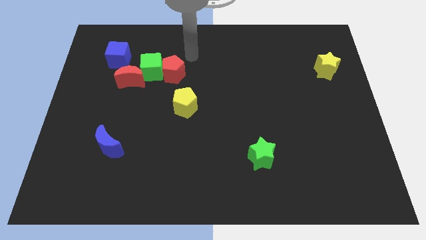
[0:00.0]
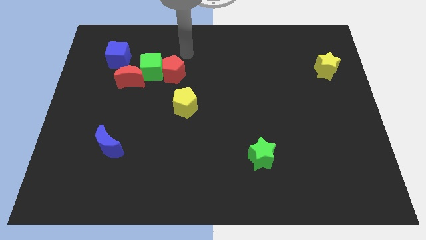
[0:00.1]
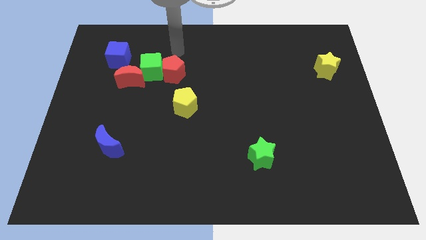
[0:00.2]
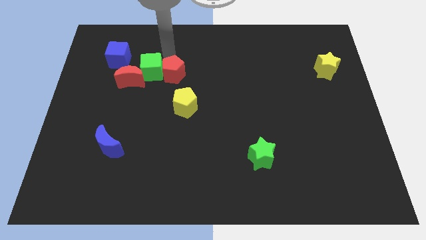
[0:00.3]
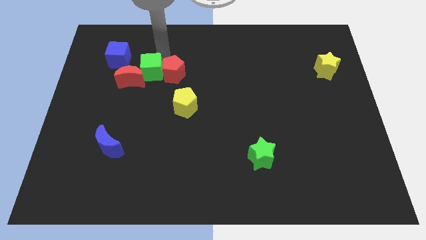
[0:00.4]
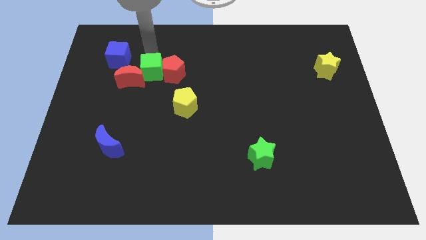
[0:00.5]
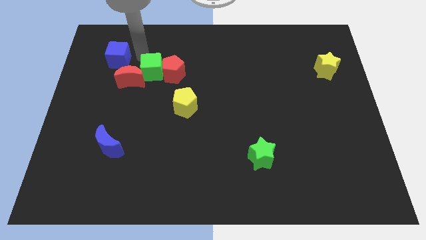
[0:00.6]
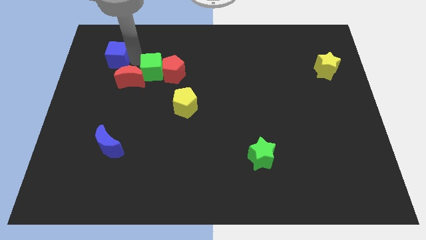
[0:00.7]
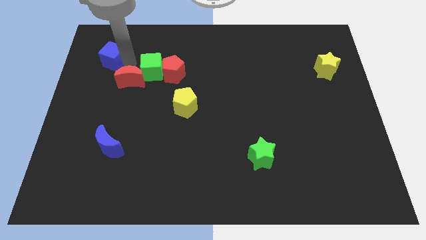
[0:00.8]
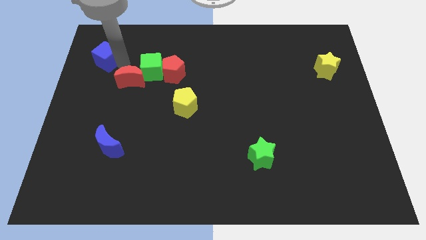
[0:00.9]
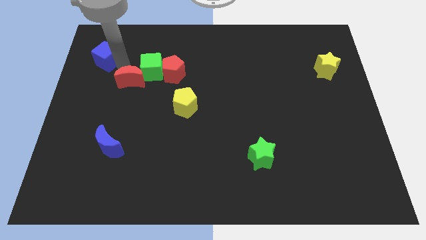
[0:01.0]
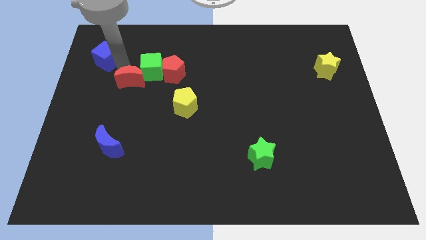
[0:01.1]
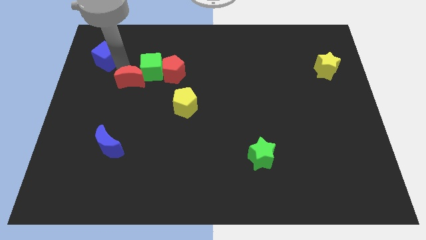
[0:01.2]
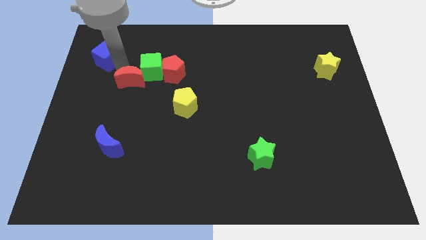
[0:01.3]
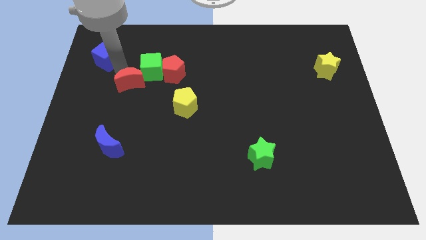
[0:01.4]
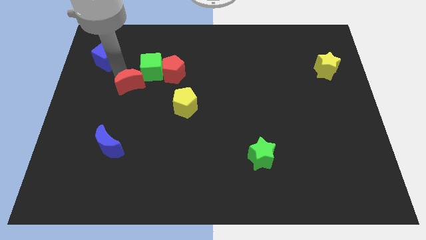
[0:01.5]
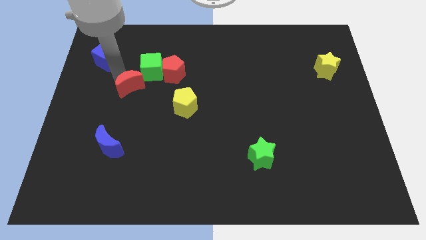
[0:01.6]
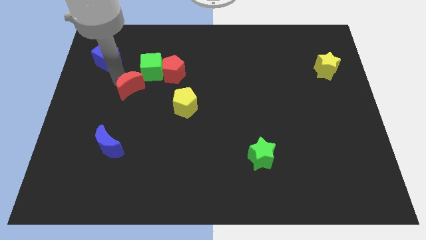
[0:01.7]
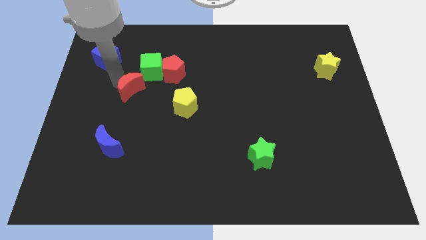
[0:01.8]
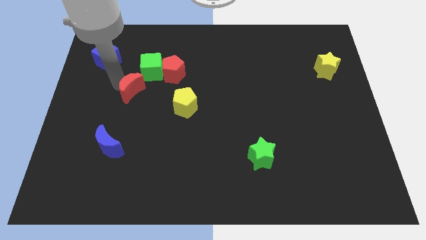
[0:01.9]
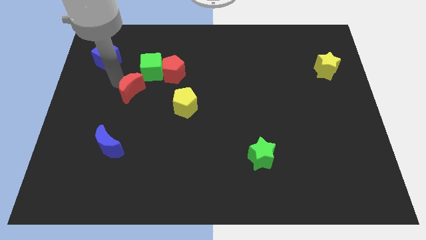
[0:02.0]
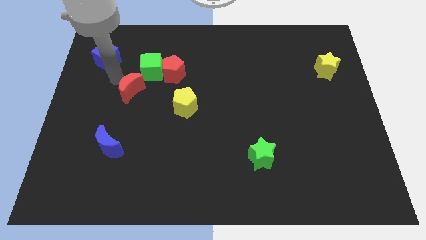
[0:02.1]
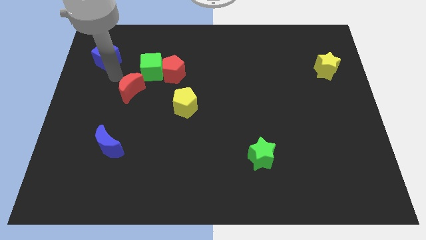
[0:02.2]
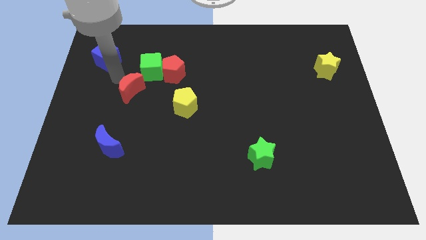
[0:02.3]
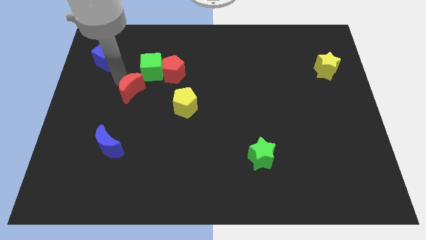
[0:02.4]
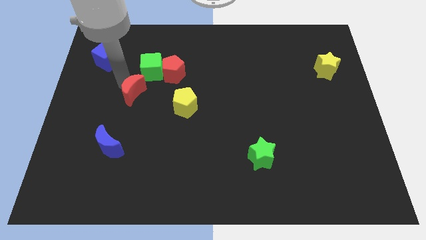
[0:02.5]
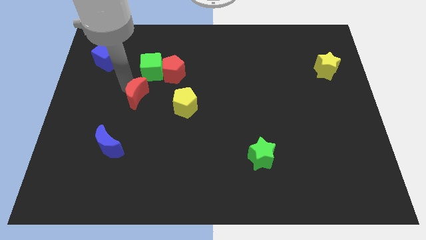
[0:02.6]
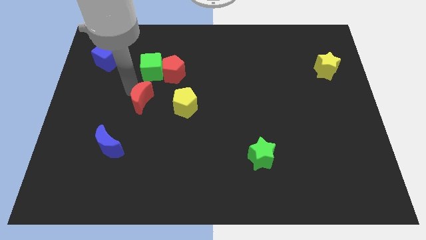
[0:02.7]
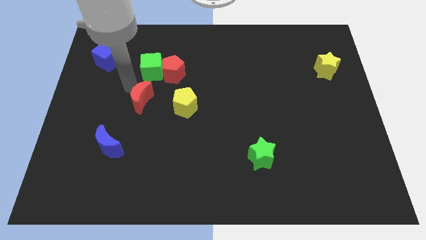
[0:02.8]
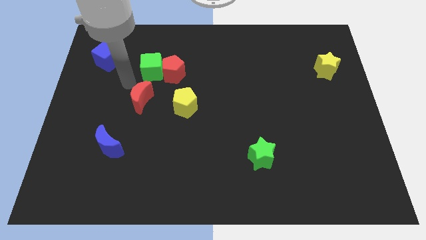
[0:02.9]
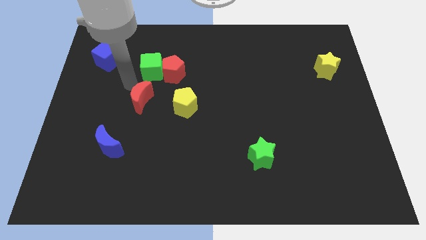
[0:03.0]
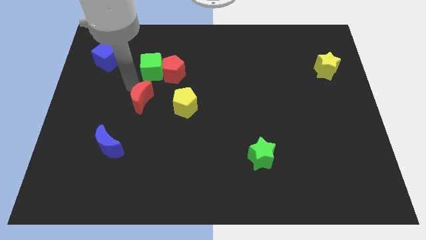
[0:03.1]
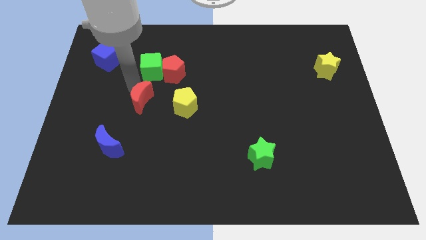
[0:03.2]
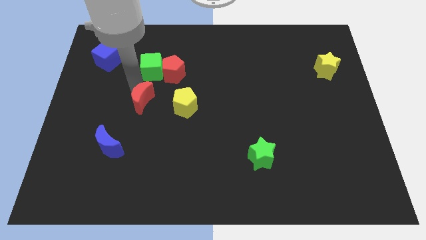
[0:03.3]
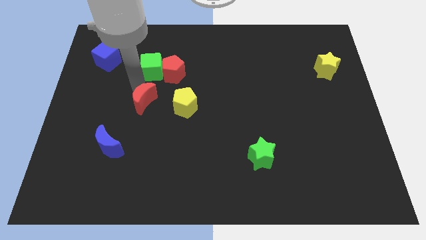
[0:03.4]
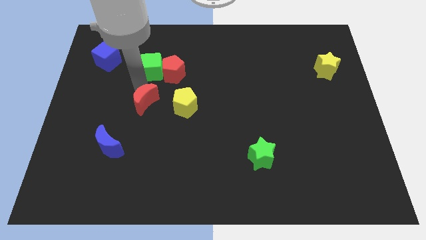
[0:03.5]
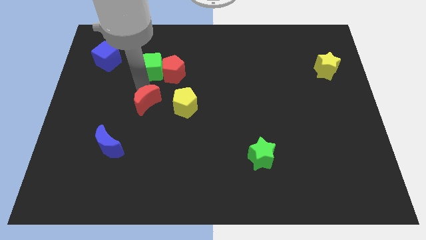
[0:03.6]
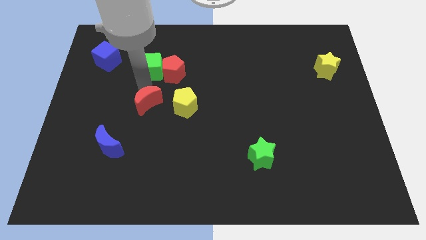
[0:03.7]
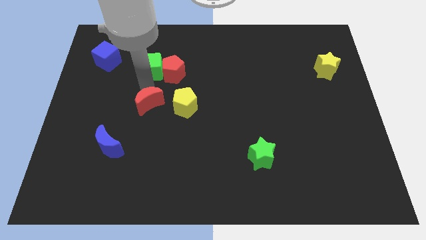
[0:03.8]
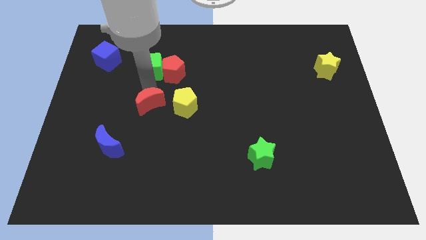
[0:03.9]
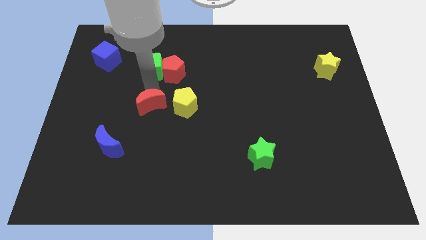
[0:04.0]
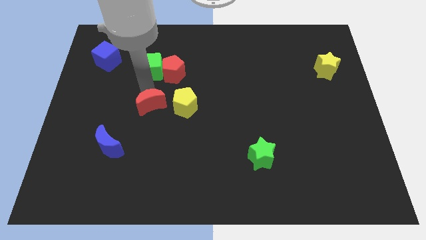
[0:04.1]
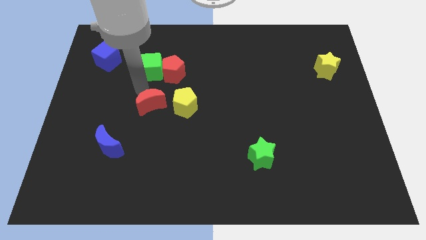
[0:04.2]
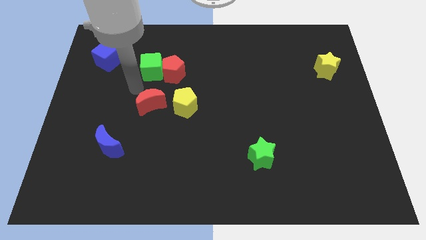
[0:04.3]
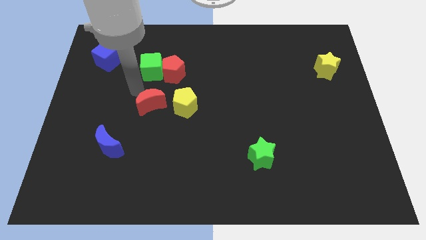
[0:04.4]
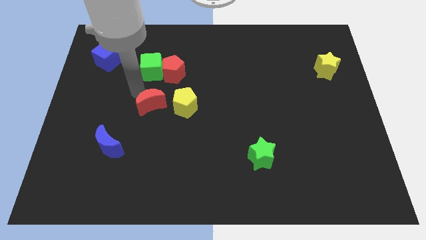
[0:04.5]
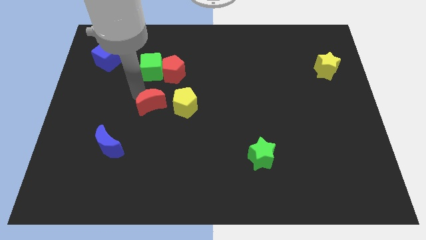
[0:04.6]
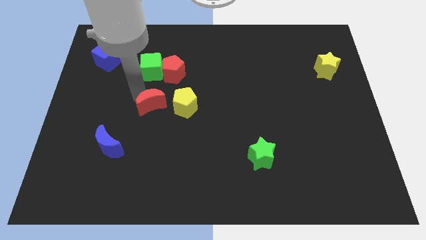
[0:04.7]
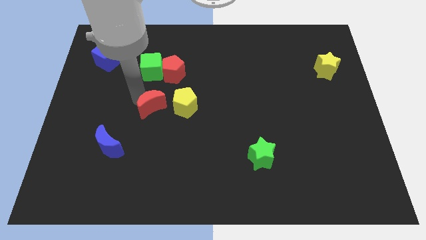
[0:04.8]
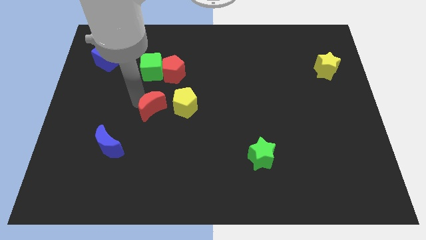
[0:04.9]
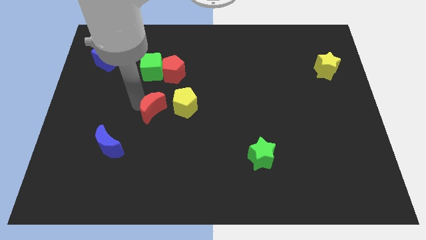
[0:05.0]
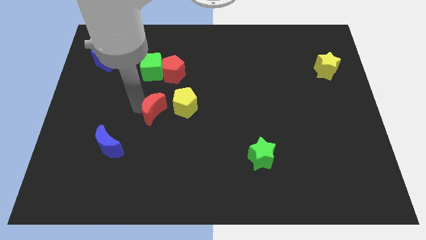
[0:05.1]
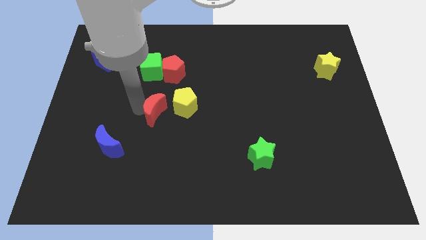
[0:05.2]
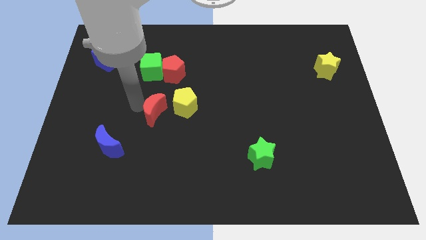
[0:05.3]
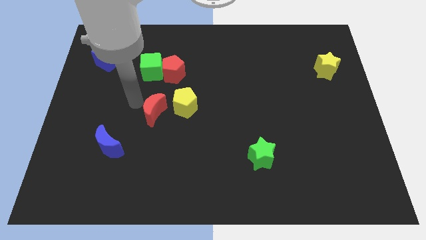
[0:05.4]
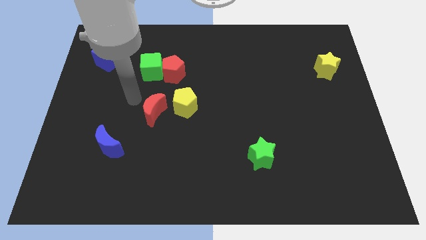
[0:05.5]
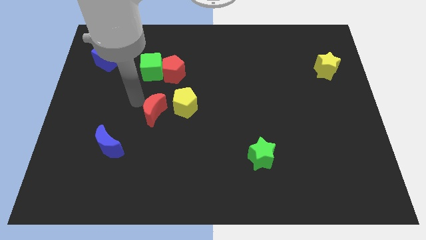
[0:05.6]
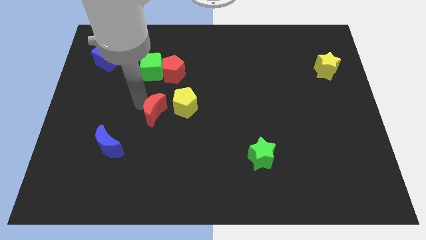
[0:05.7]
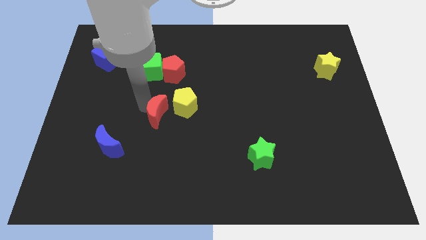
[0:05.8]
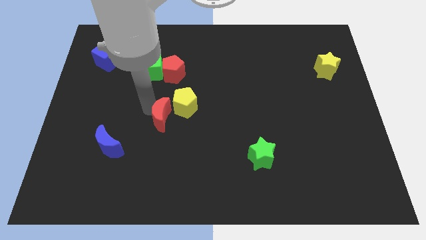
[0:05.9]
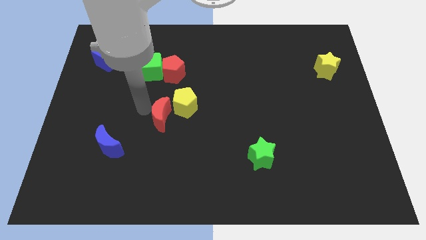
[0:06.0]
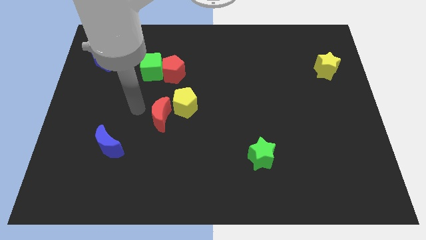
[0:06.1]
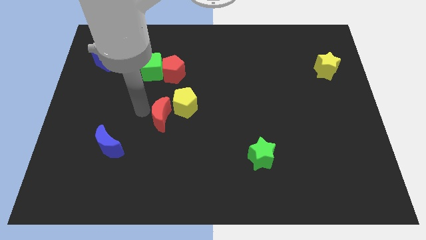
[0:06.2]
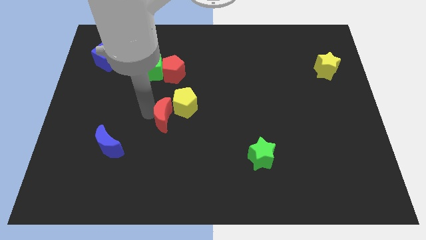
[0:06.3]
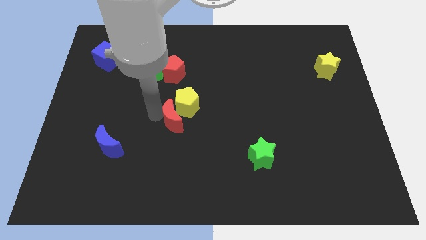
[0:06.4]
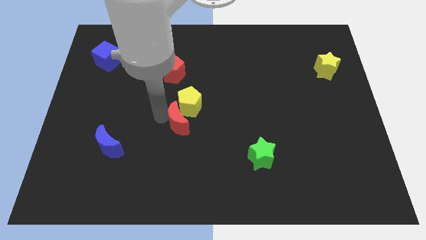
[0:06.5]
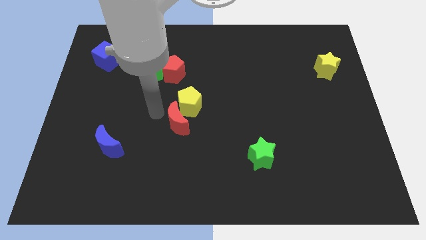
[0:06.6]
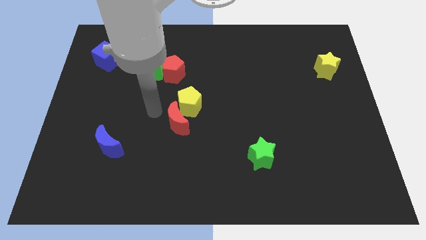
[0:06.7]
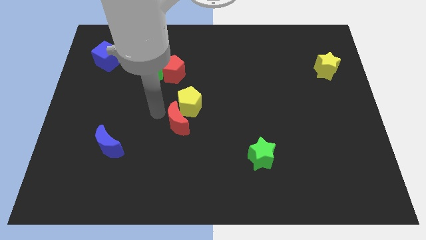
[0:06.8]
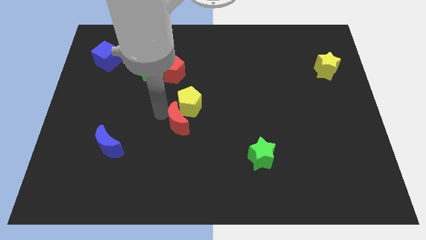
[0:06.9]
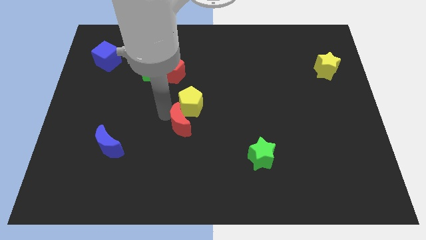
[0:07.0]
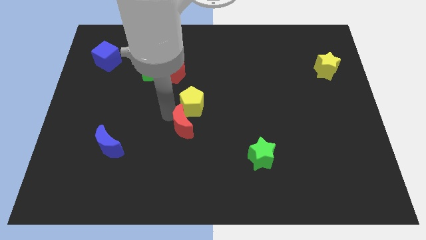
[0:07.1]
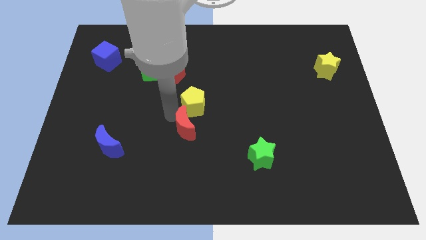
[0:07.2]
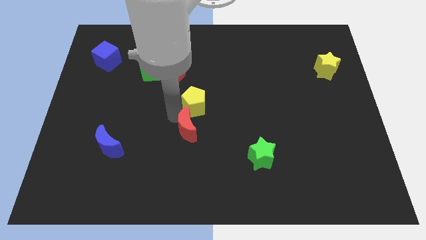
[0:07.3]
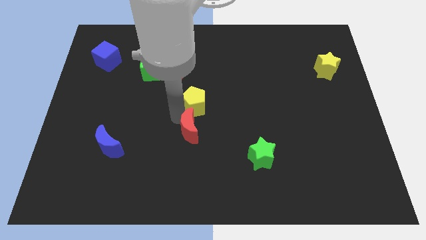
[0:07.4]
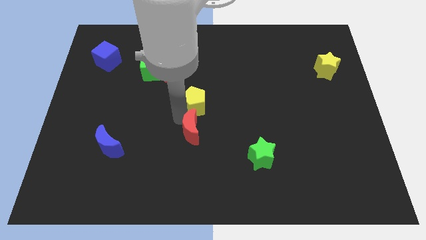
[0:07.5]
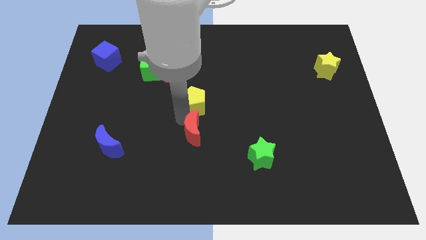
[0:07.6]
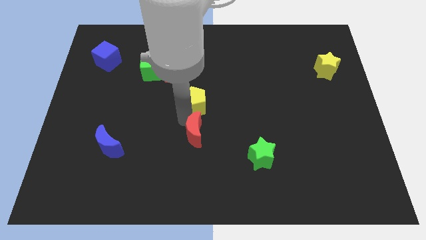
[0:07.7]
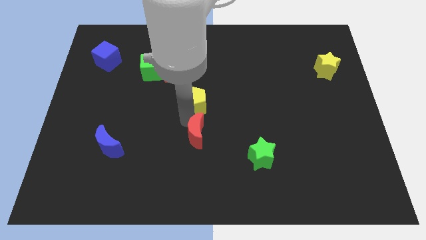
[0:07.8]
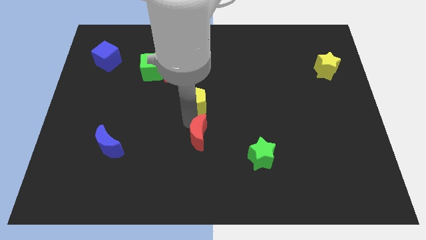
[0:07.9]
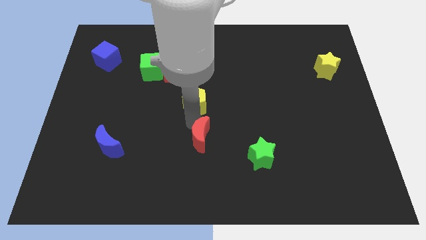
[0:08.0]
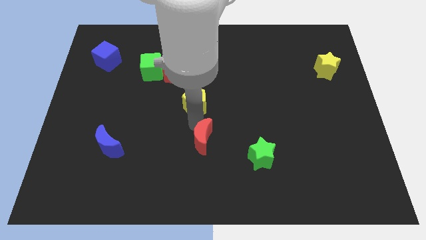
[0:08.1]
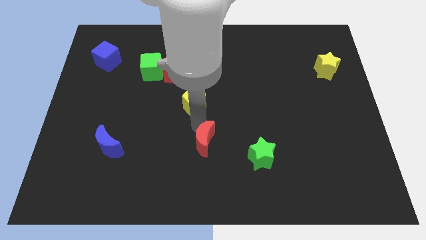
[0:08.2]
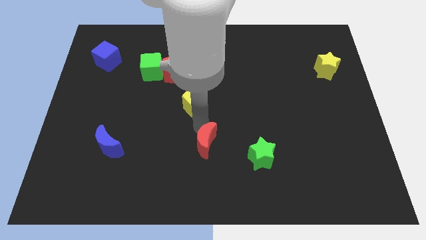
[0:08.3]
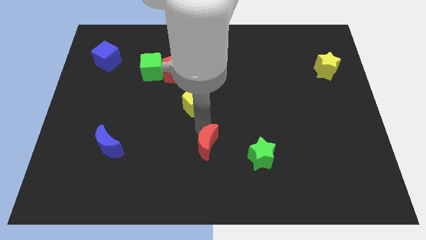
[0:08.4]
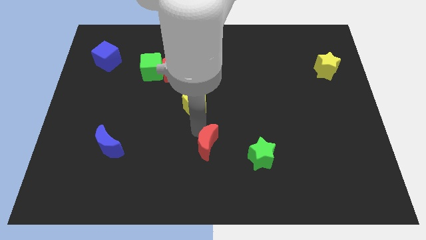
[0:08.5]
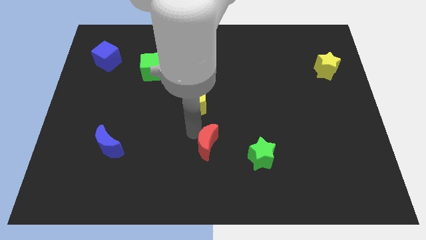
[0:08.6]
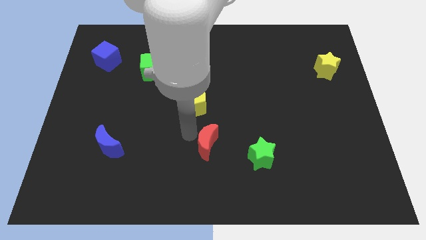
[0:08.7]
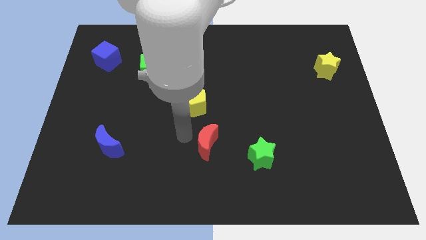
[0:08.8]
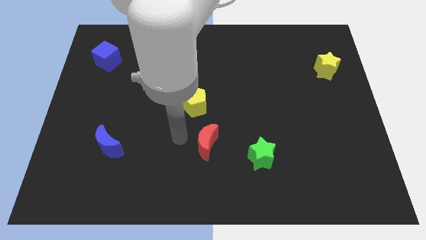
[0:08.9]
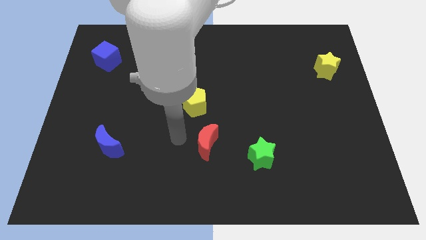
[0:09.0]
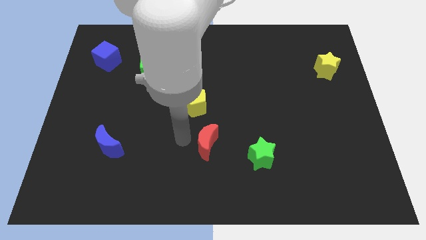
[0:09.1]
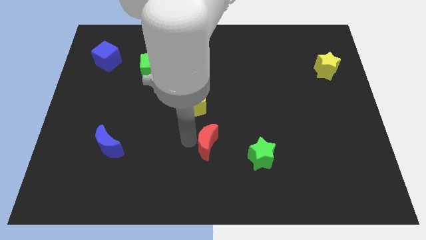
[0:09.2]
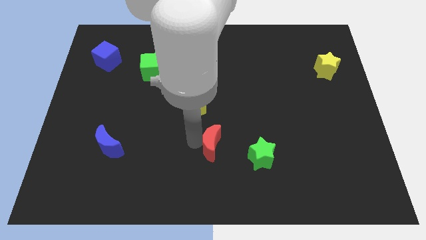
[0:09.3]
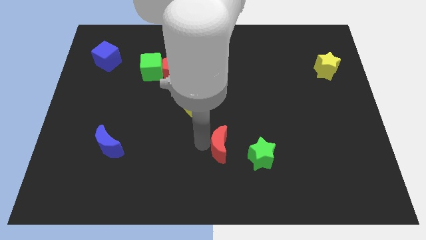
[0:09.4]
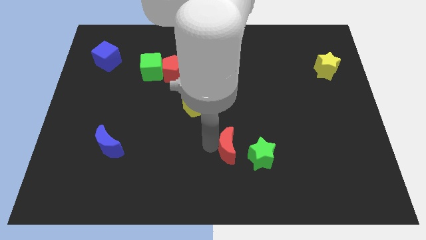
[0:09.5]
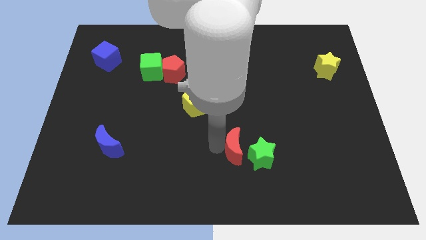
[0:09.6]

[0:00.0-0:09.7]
slide the red moon to the green star
